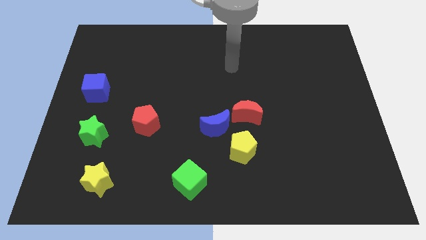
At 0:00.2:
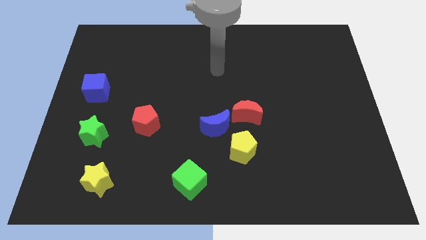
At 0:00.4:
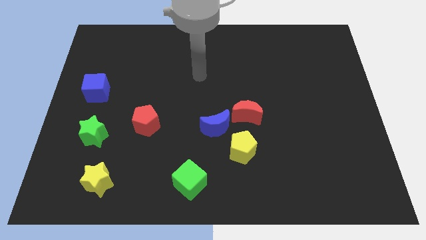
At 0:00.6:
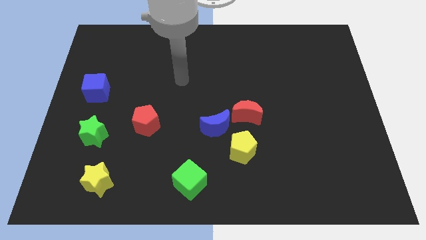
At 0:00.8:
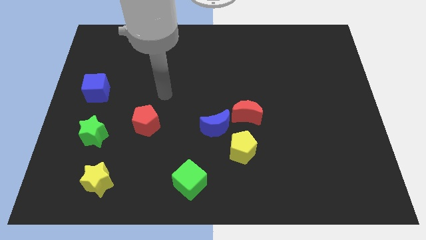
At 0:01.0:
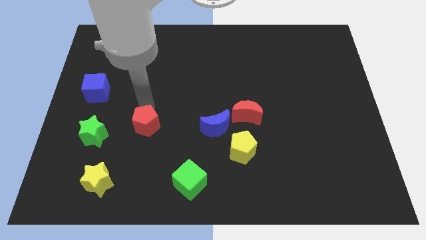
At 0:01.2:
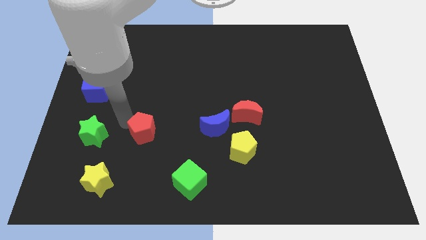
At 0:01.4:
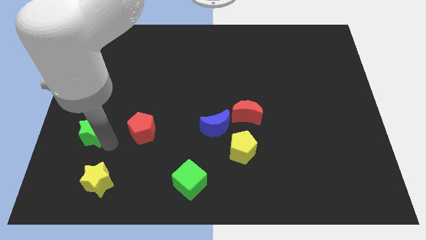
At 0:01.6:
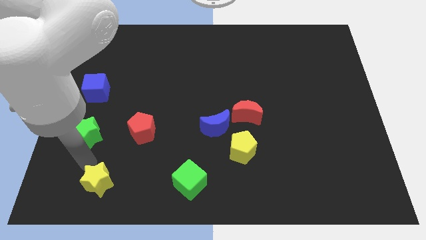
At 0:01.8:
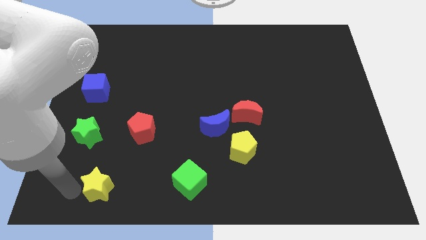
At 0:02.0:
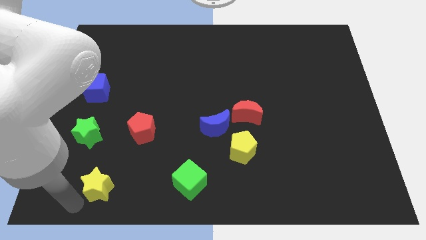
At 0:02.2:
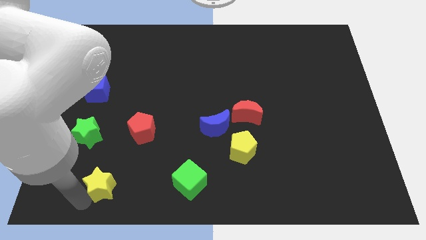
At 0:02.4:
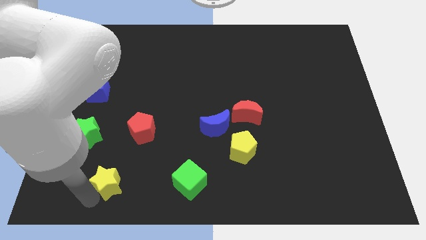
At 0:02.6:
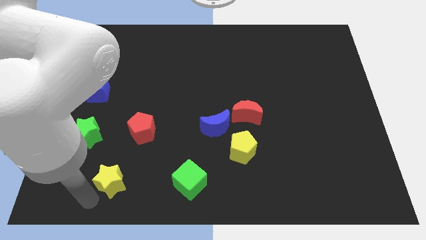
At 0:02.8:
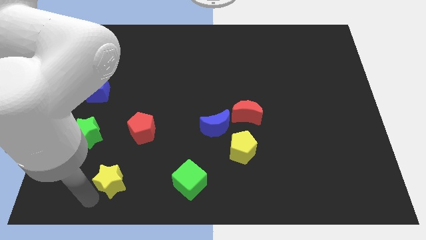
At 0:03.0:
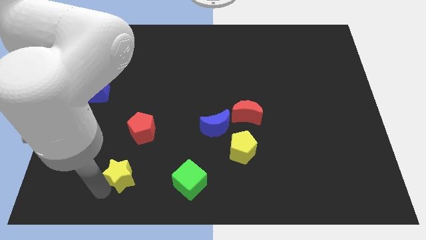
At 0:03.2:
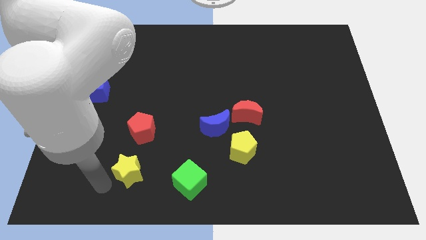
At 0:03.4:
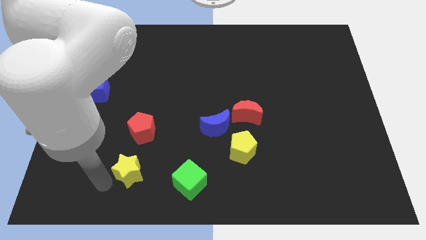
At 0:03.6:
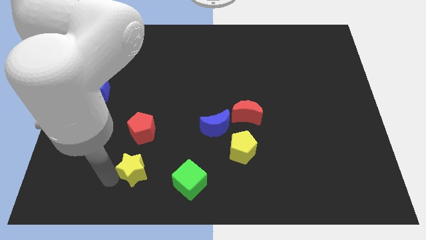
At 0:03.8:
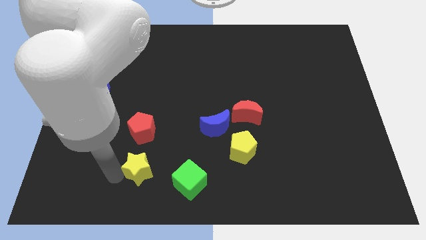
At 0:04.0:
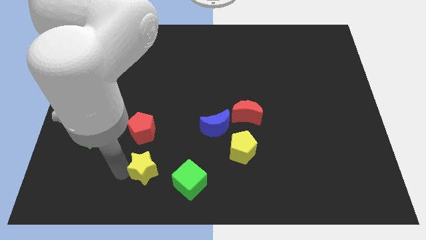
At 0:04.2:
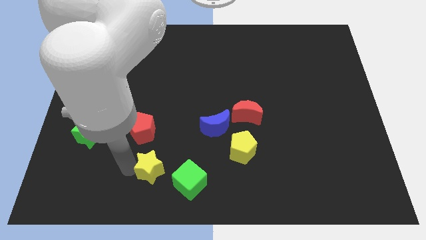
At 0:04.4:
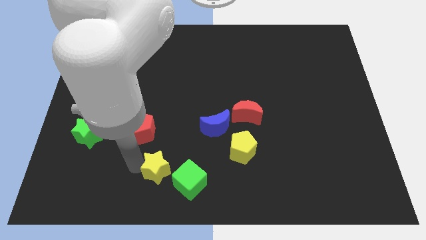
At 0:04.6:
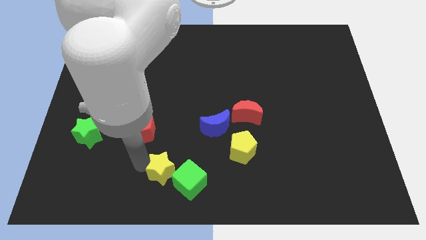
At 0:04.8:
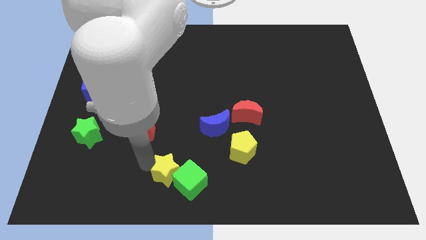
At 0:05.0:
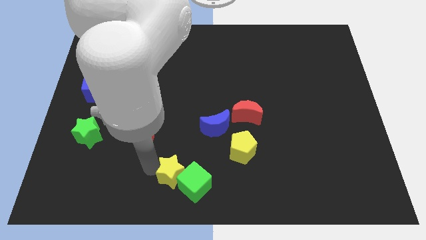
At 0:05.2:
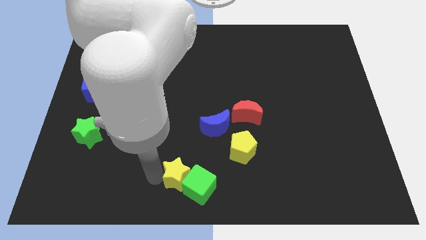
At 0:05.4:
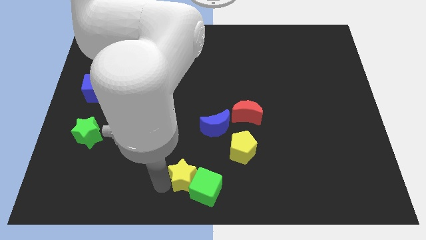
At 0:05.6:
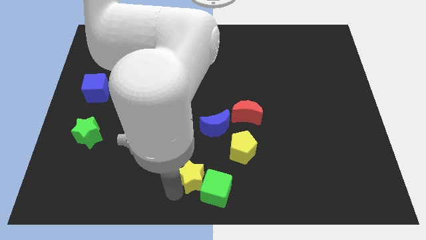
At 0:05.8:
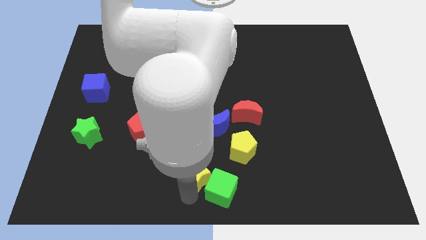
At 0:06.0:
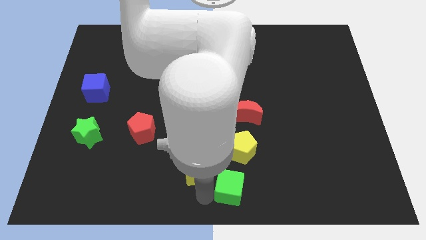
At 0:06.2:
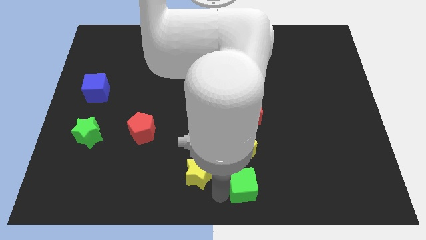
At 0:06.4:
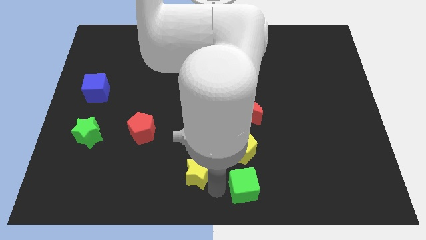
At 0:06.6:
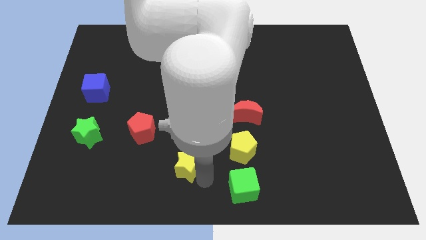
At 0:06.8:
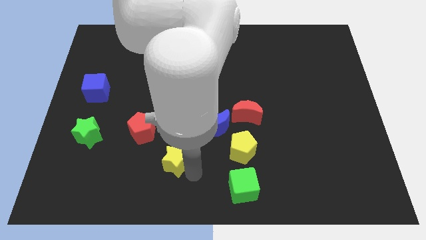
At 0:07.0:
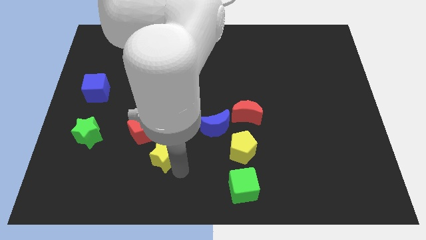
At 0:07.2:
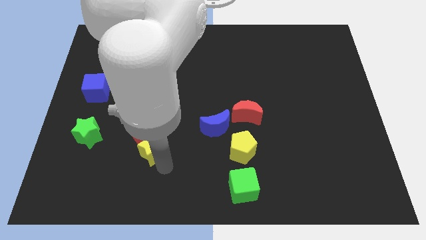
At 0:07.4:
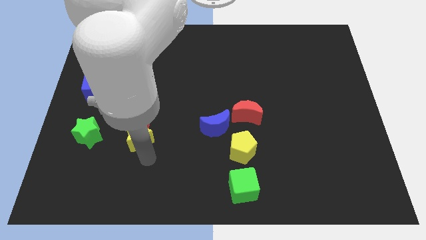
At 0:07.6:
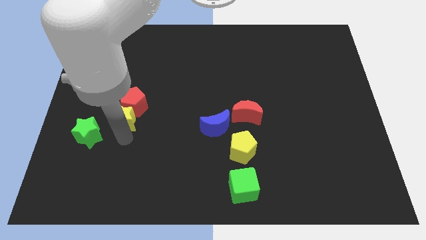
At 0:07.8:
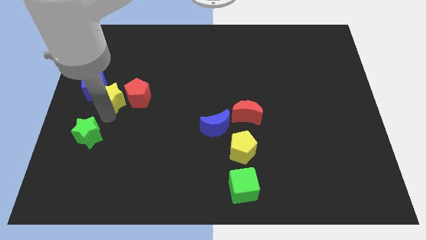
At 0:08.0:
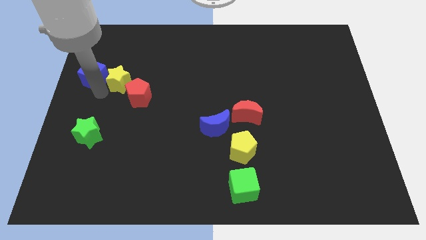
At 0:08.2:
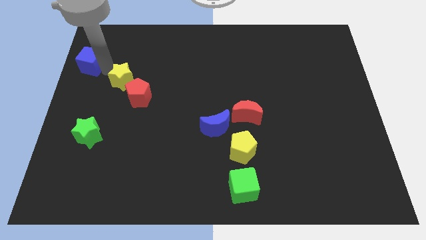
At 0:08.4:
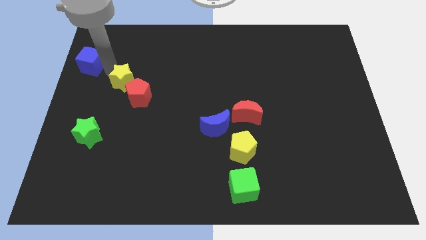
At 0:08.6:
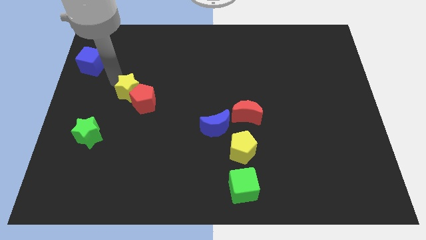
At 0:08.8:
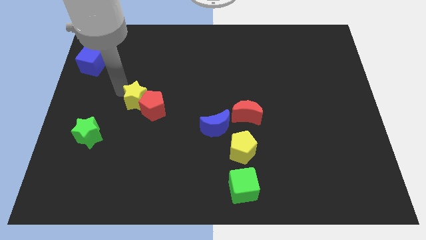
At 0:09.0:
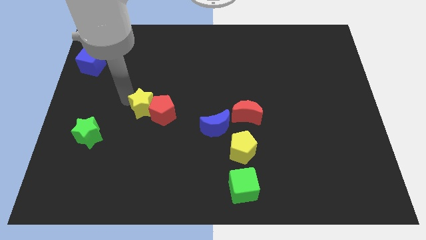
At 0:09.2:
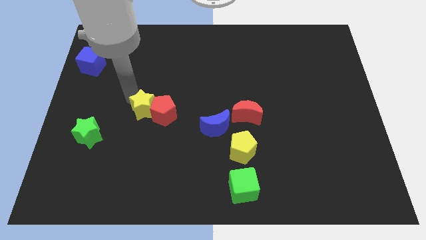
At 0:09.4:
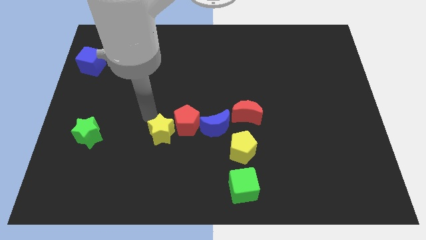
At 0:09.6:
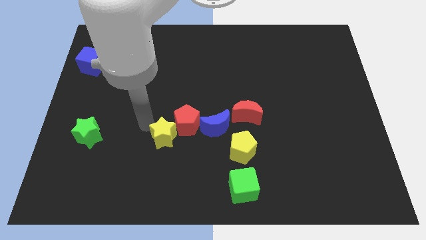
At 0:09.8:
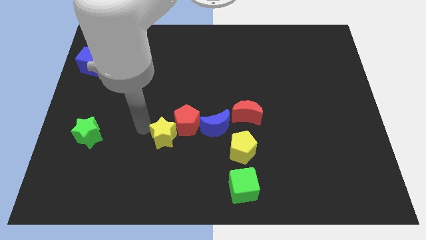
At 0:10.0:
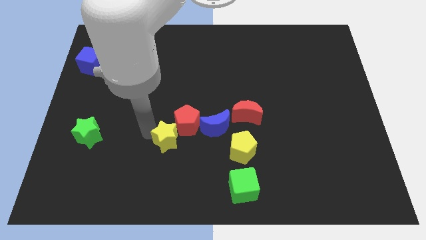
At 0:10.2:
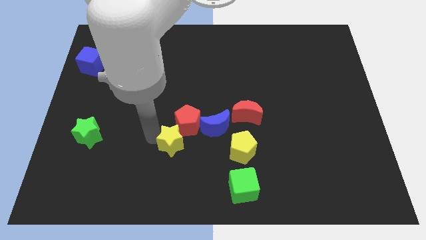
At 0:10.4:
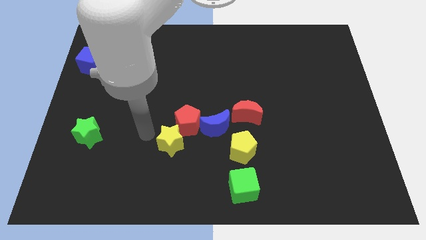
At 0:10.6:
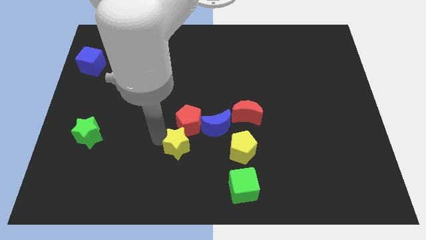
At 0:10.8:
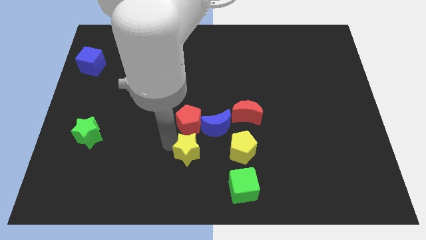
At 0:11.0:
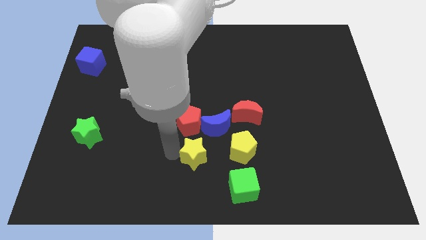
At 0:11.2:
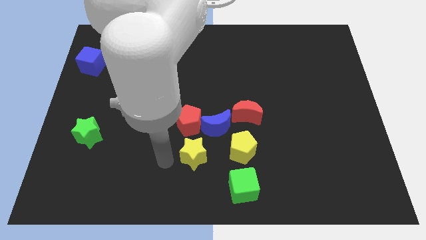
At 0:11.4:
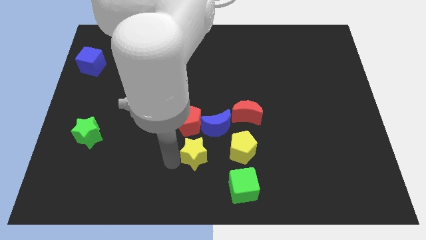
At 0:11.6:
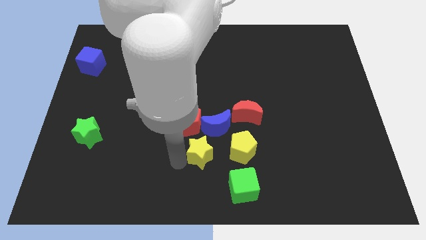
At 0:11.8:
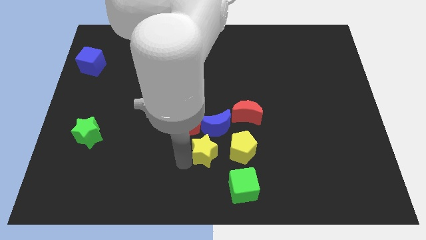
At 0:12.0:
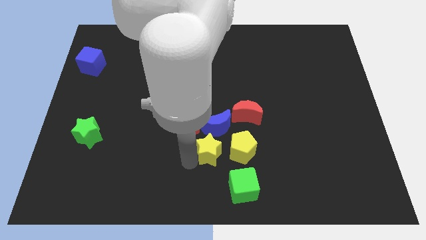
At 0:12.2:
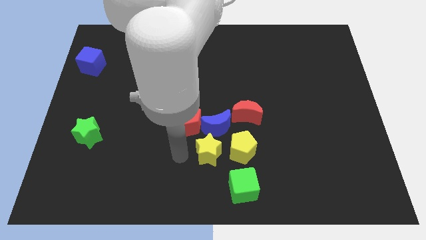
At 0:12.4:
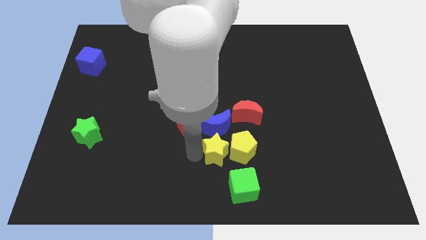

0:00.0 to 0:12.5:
put the yellow star close to the yellow pentagon

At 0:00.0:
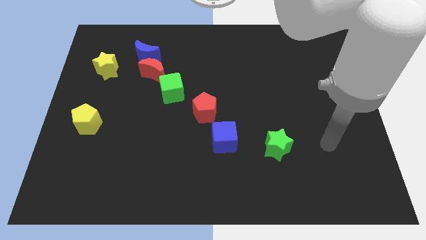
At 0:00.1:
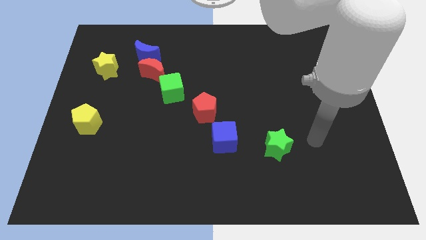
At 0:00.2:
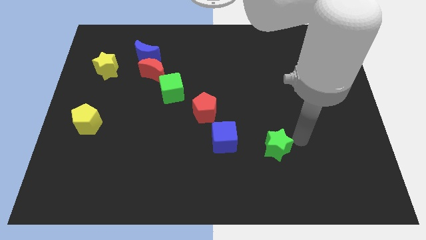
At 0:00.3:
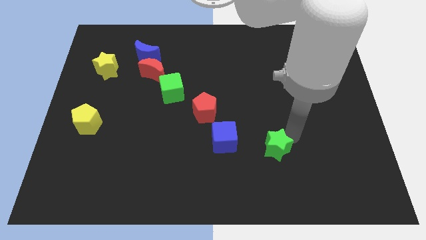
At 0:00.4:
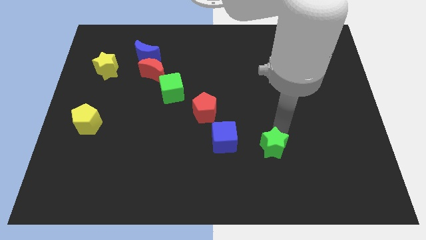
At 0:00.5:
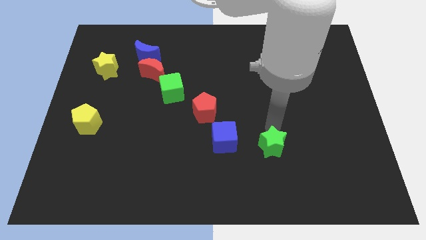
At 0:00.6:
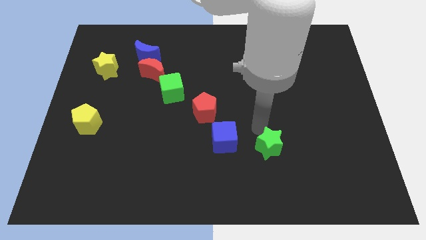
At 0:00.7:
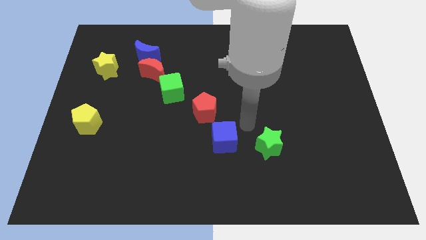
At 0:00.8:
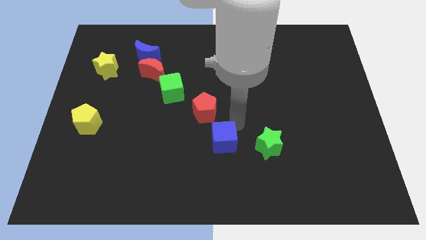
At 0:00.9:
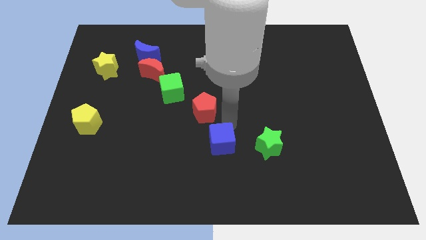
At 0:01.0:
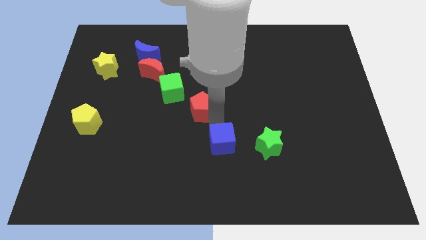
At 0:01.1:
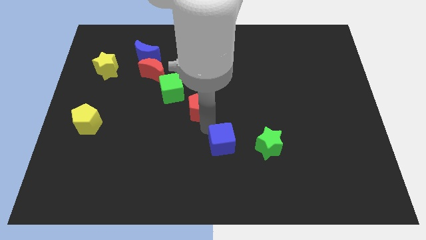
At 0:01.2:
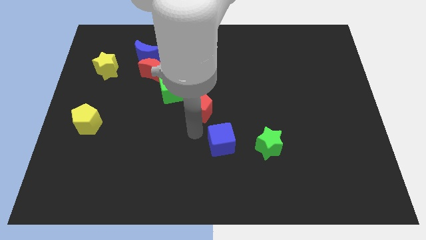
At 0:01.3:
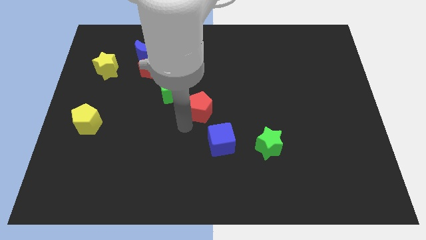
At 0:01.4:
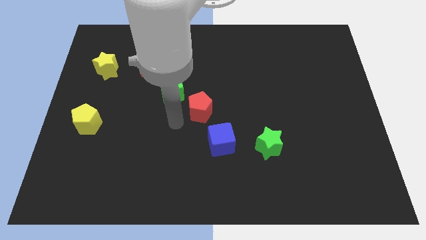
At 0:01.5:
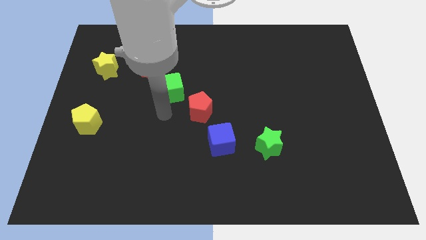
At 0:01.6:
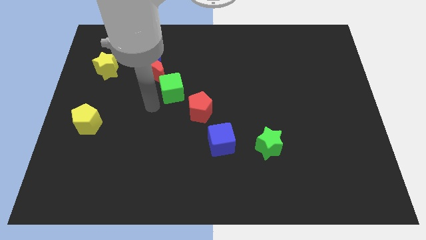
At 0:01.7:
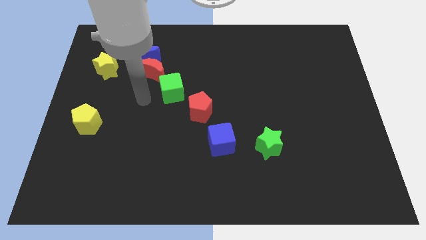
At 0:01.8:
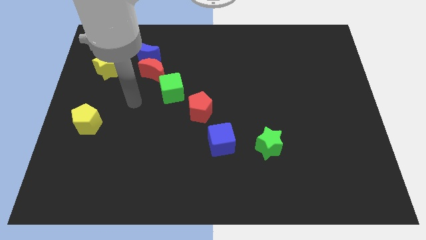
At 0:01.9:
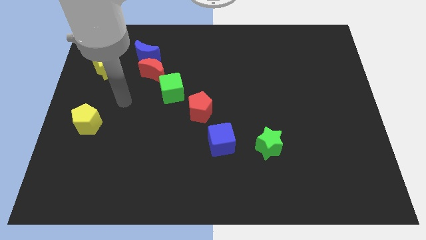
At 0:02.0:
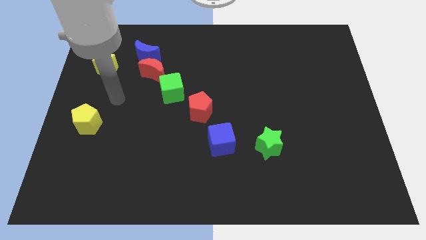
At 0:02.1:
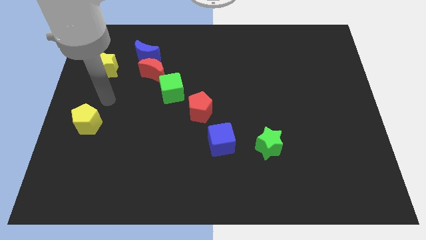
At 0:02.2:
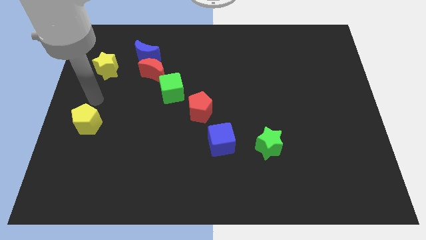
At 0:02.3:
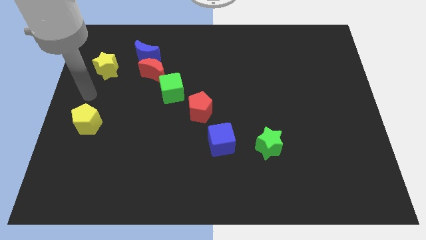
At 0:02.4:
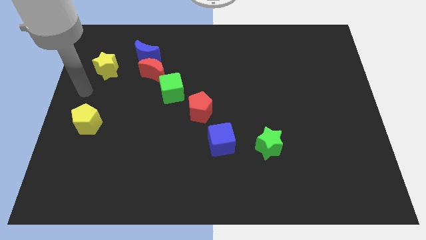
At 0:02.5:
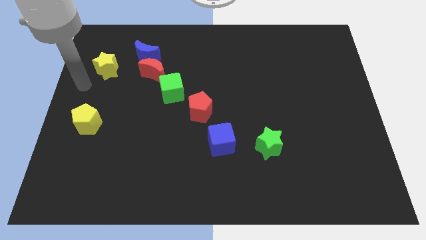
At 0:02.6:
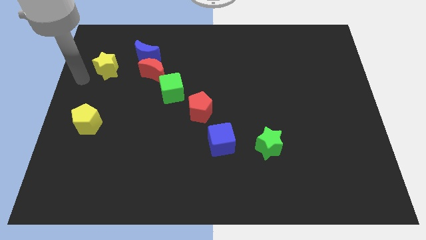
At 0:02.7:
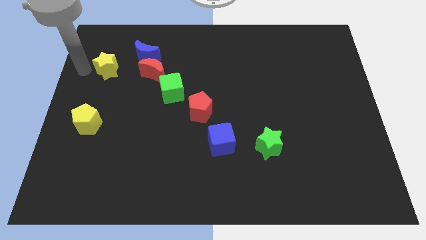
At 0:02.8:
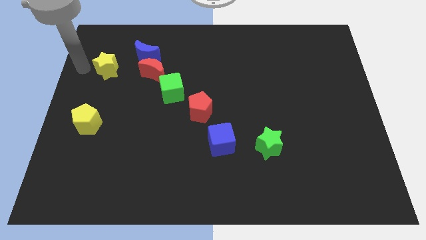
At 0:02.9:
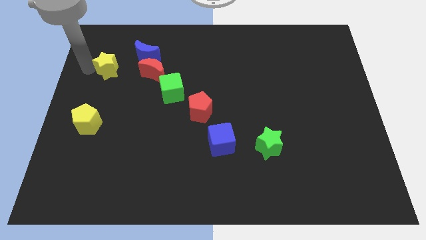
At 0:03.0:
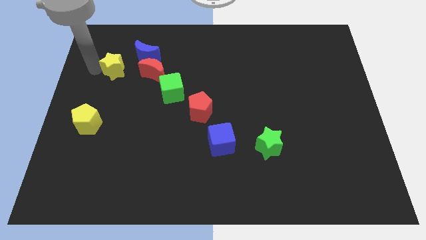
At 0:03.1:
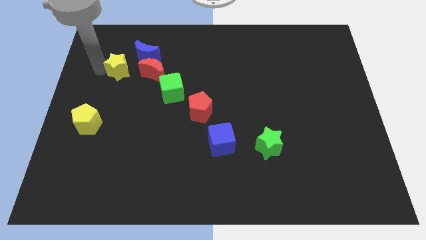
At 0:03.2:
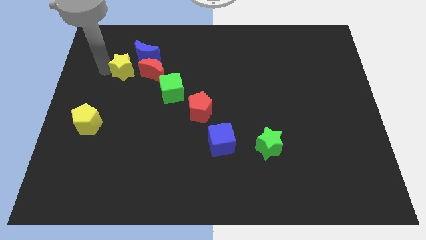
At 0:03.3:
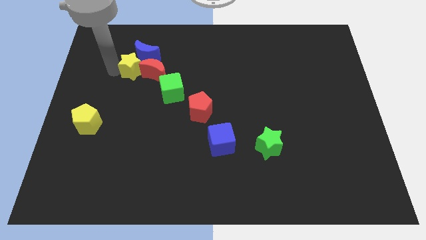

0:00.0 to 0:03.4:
put the yellow star close to the red moon
